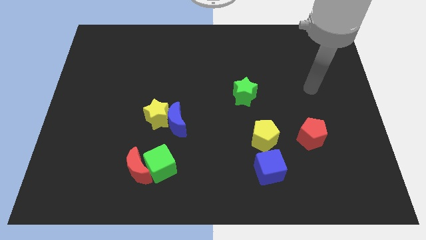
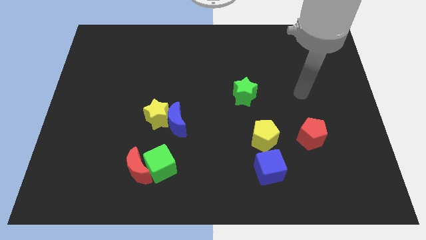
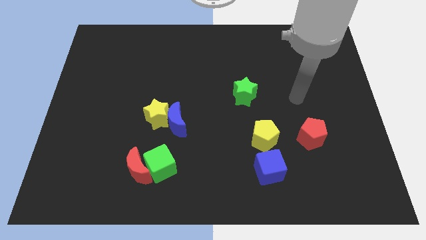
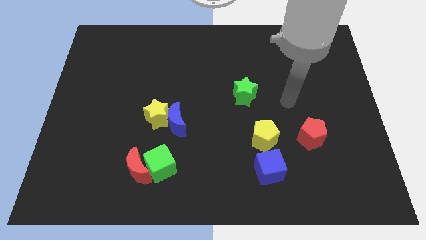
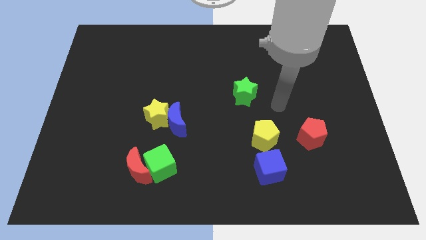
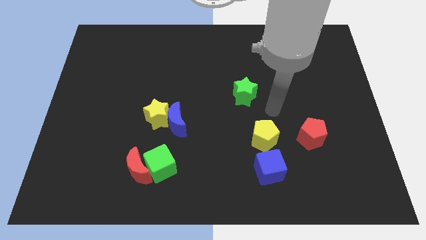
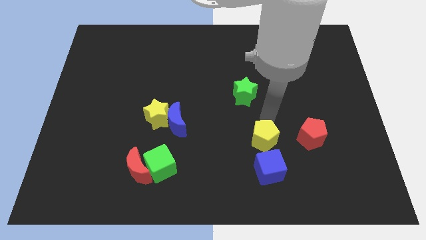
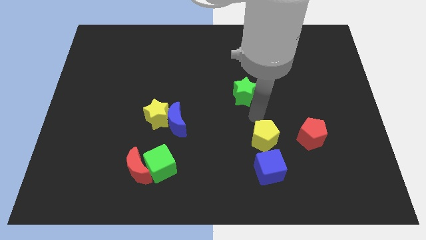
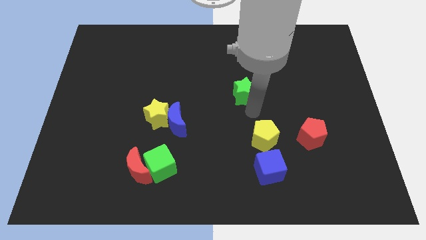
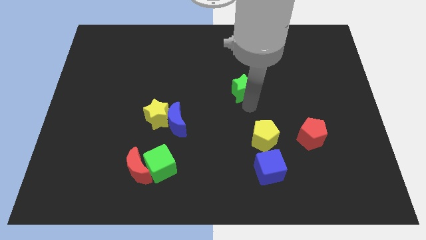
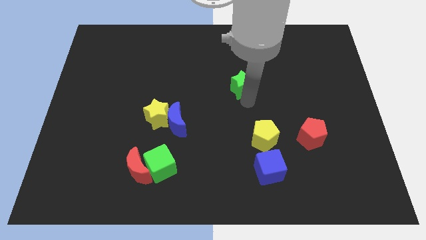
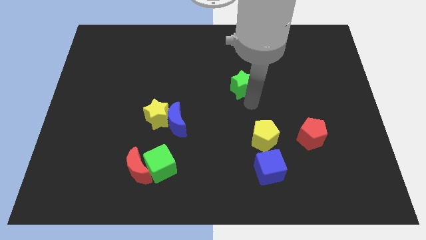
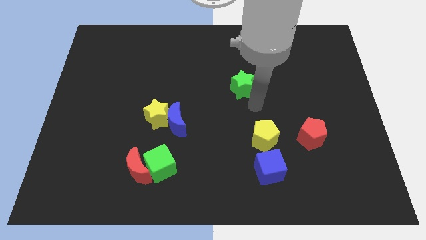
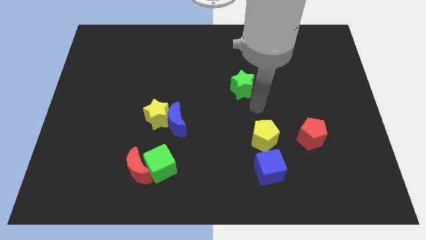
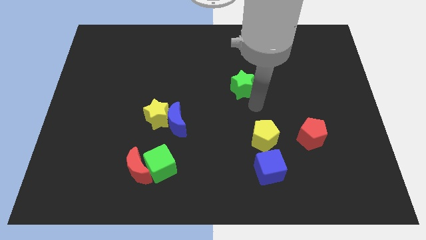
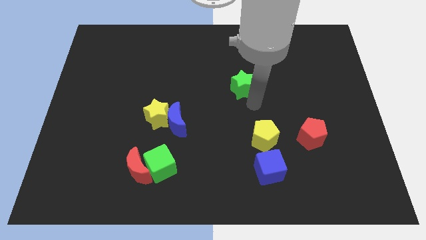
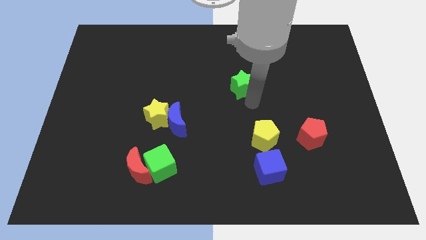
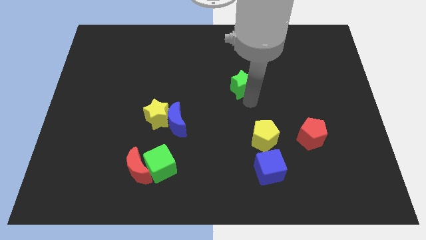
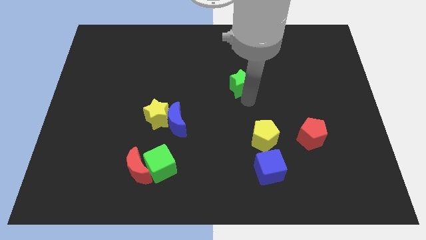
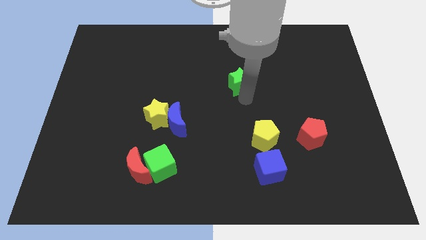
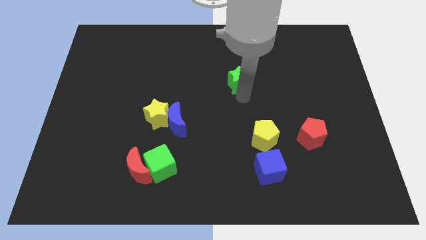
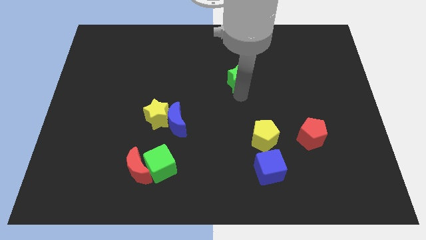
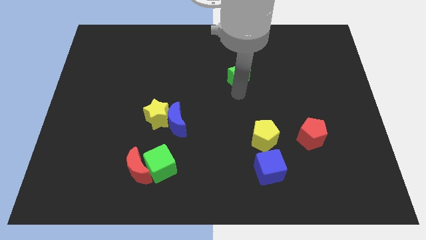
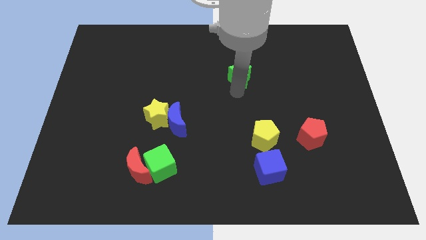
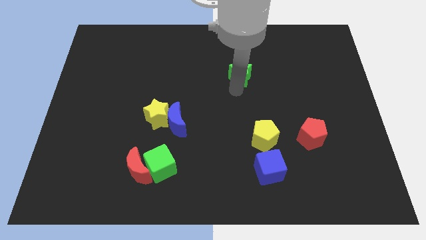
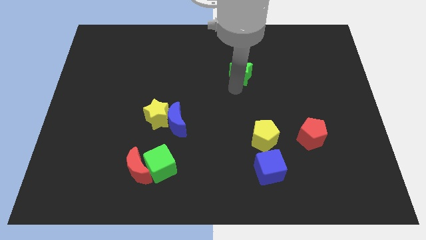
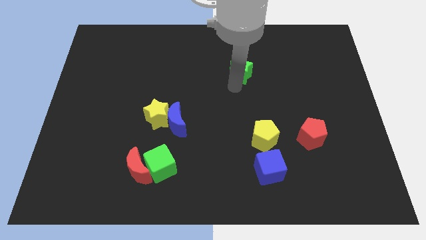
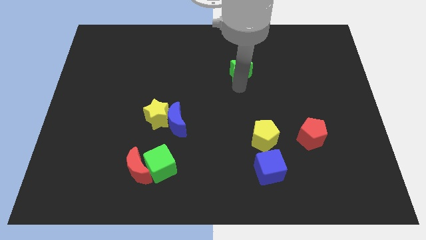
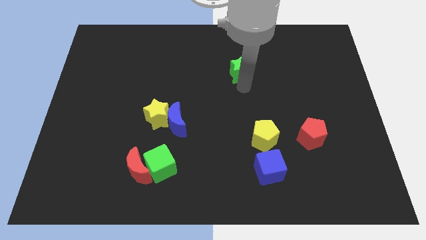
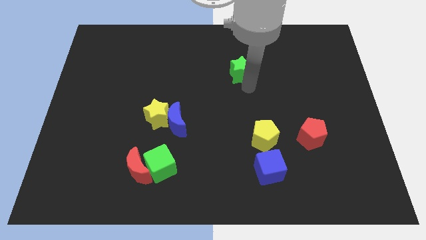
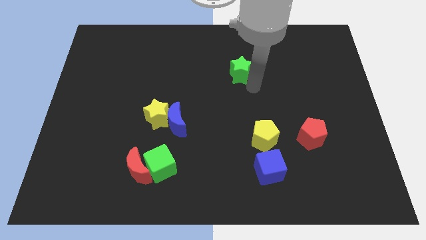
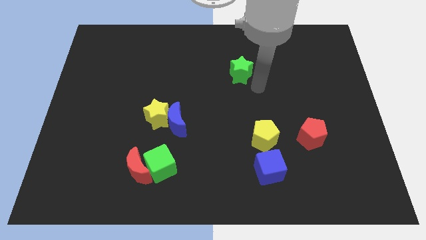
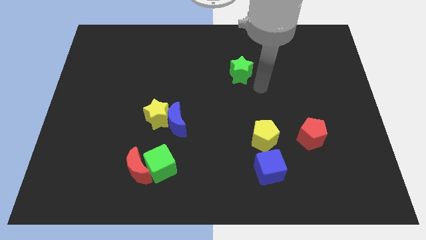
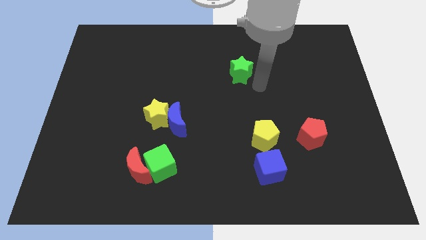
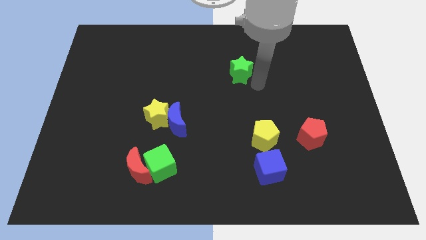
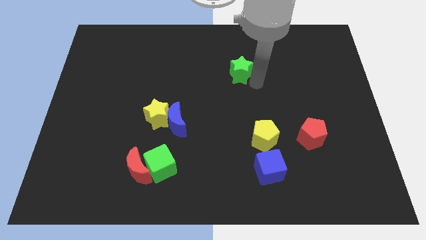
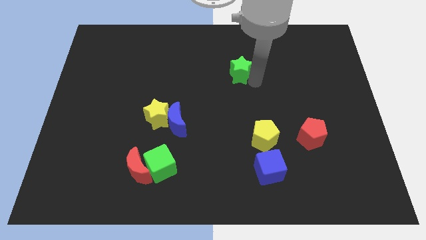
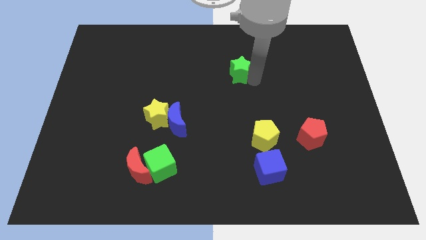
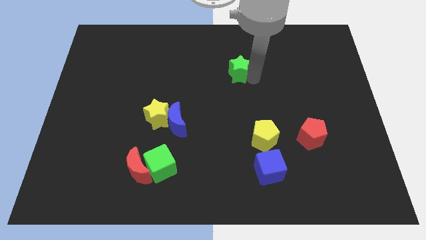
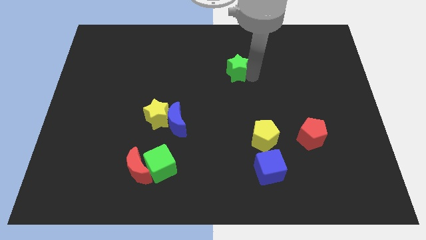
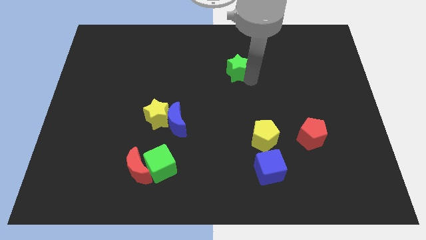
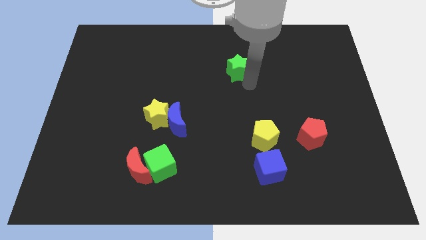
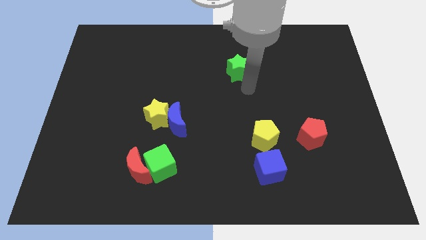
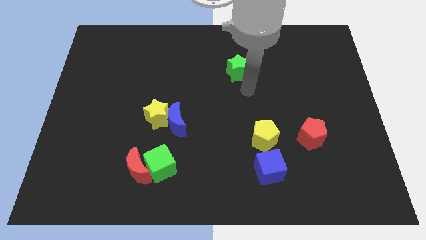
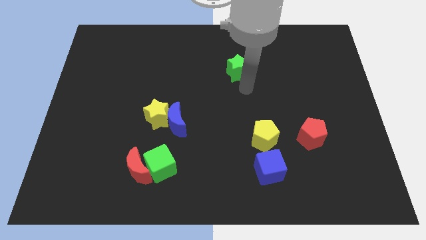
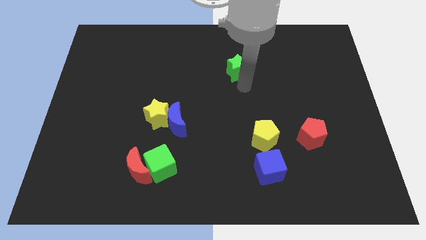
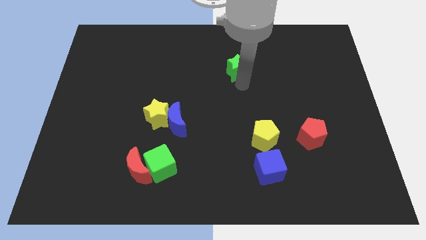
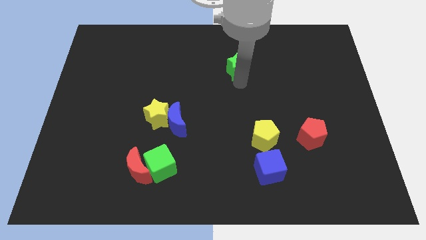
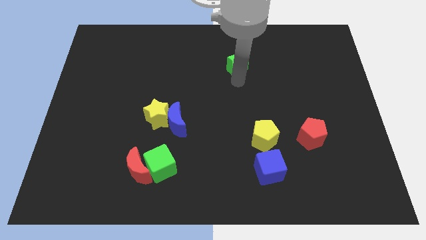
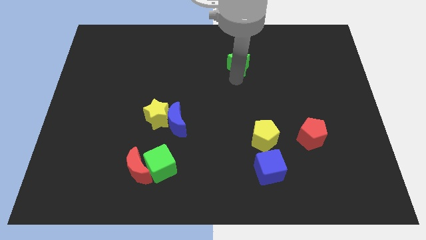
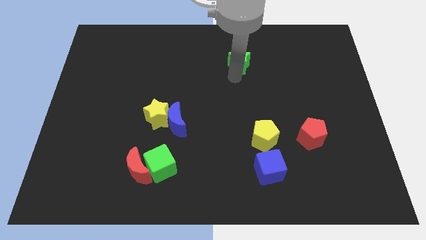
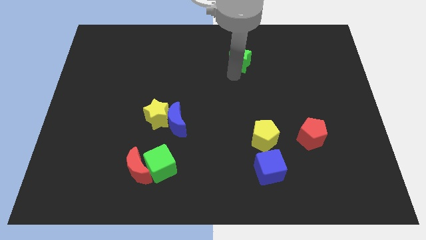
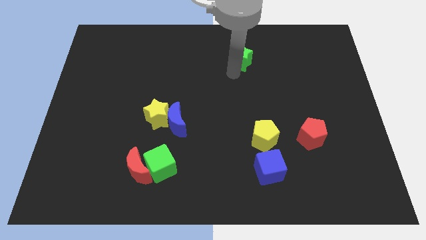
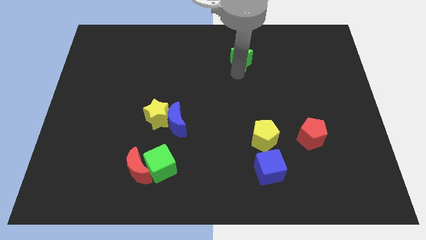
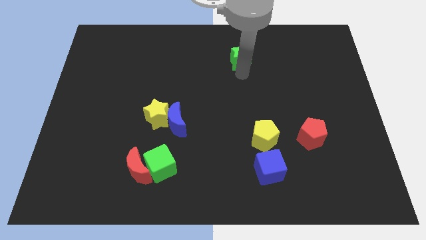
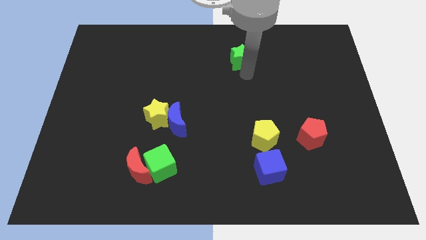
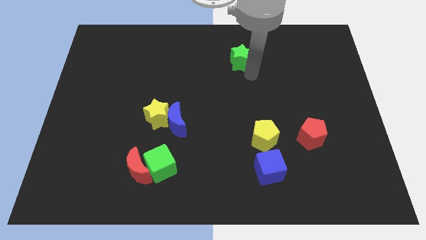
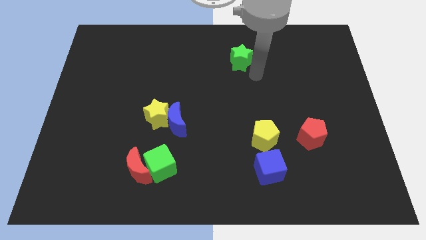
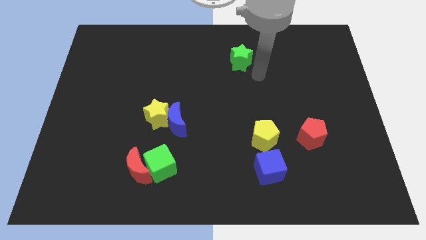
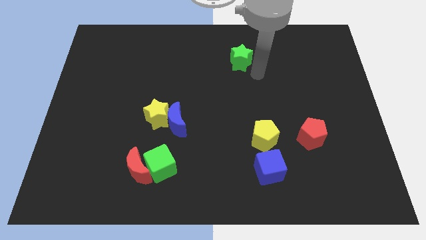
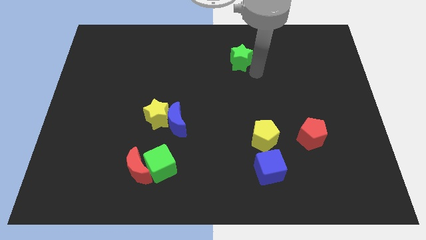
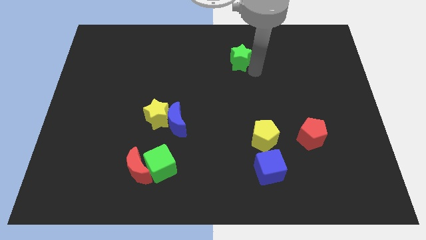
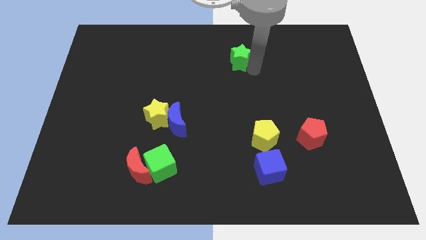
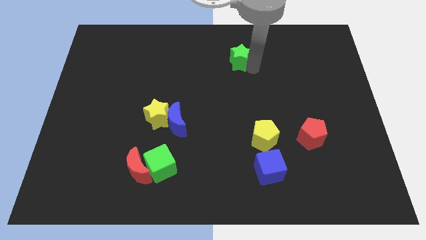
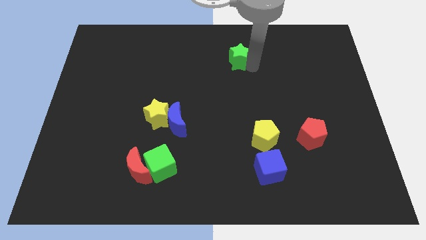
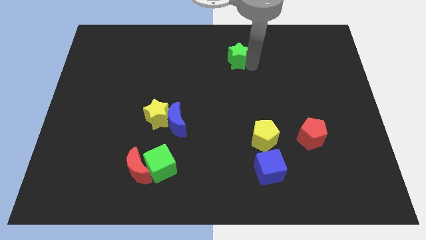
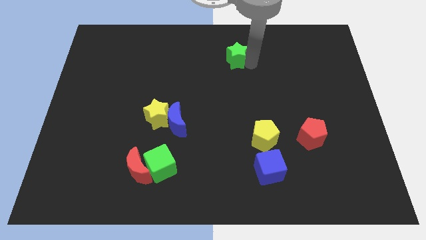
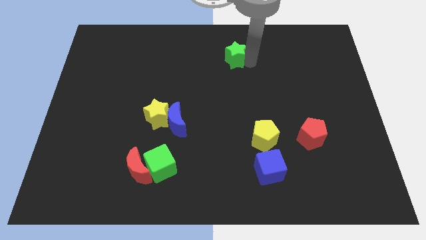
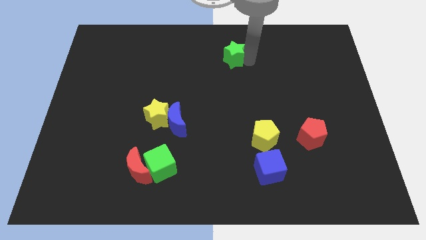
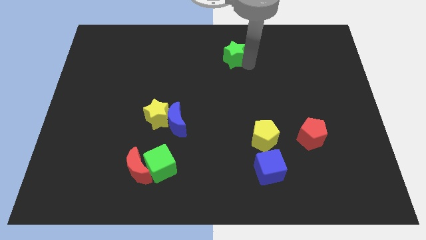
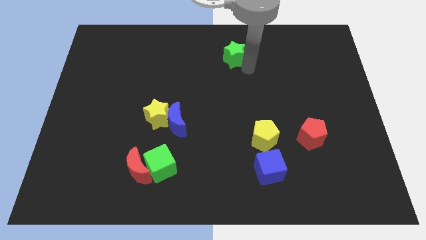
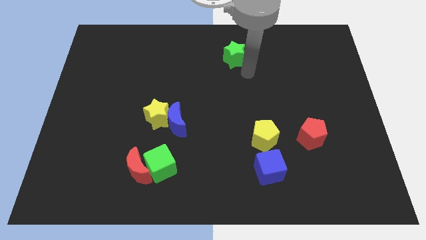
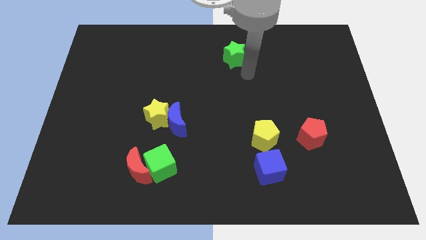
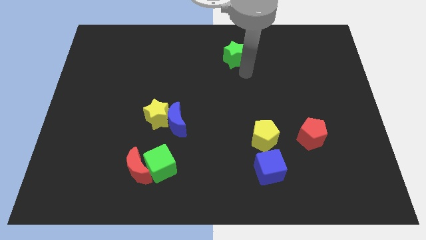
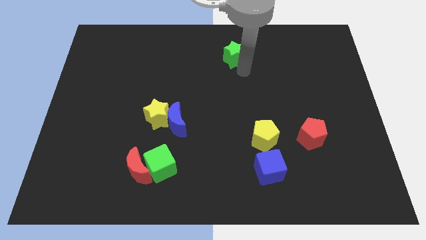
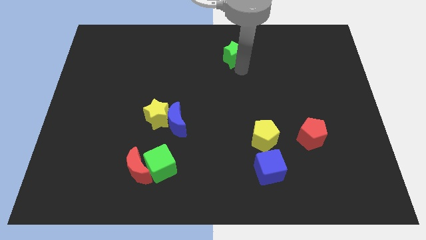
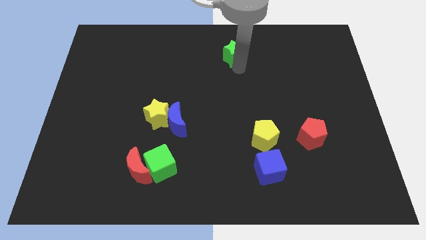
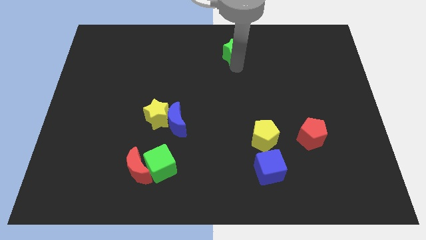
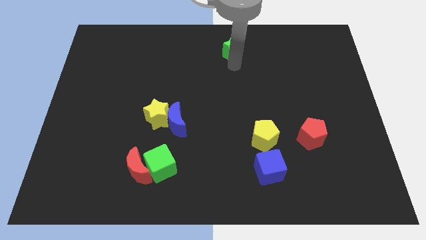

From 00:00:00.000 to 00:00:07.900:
push the green star to the towards your base
